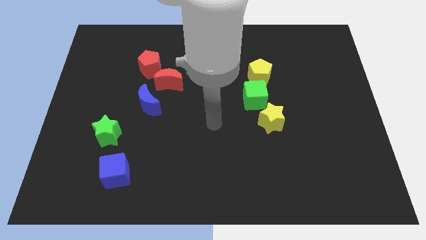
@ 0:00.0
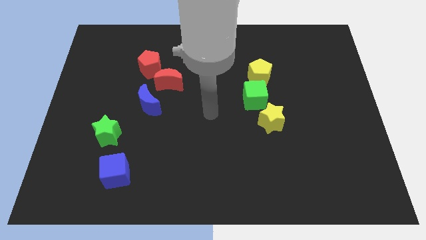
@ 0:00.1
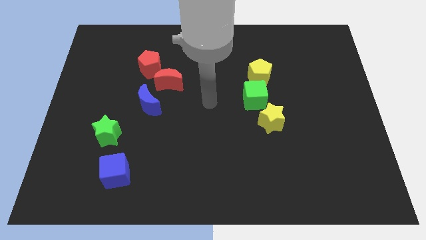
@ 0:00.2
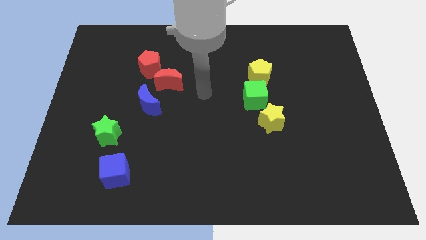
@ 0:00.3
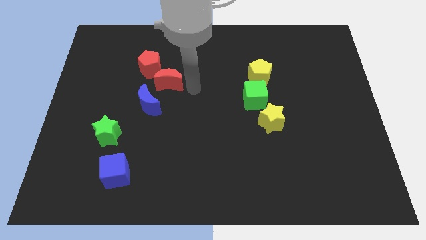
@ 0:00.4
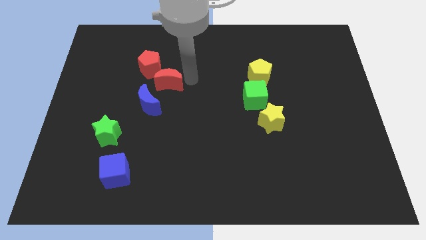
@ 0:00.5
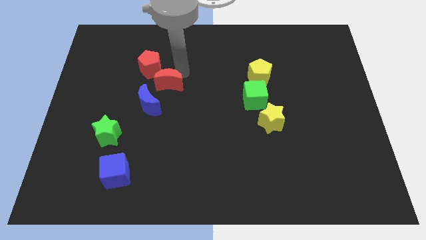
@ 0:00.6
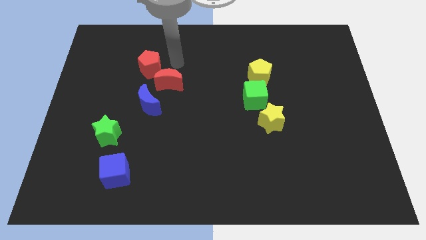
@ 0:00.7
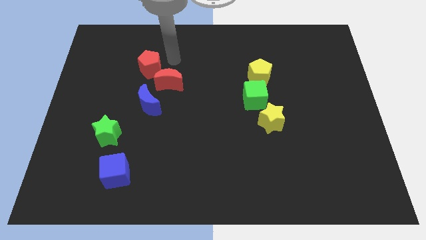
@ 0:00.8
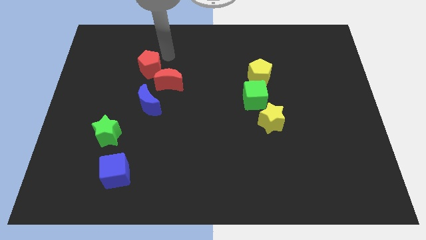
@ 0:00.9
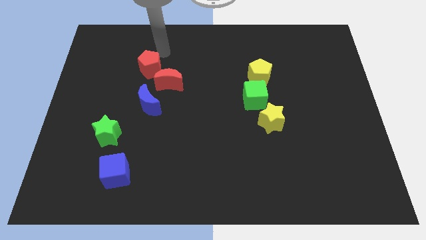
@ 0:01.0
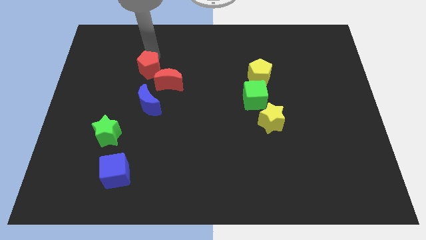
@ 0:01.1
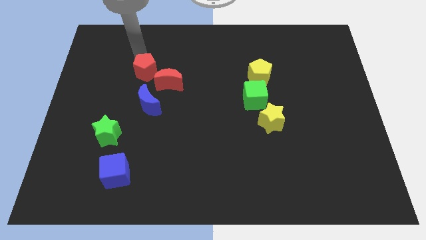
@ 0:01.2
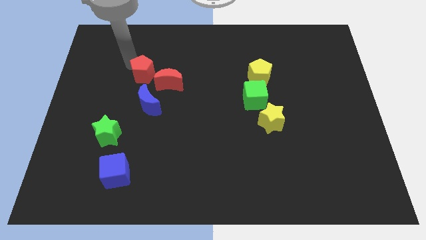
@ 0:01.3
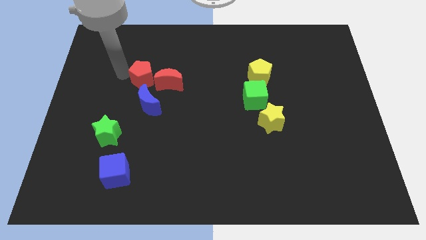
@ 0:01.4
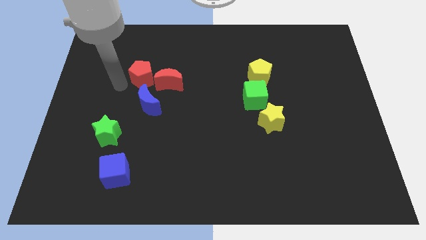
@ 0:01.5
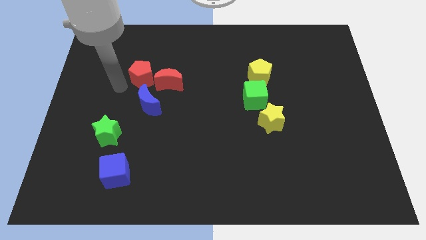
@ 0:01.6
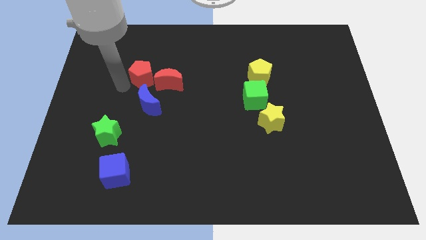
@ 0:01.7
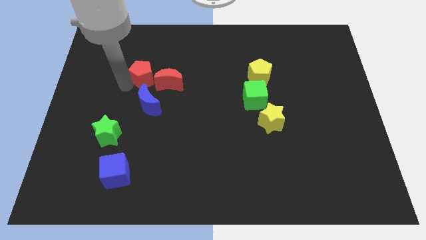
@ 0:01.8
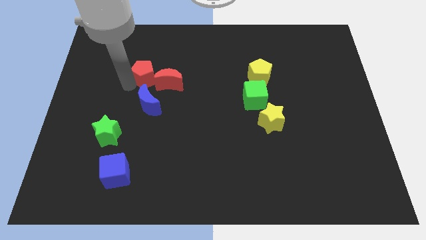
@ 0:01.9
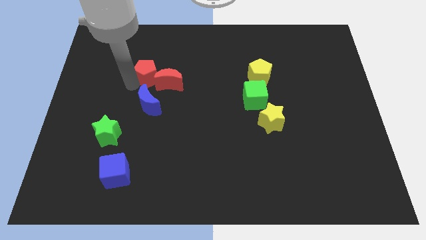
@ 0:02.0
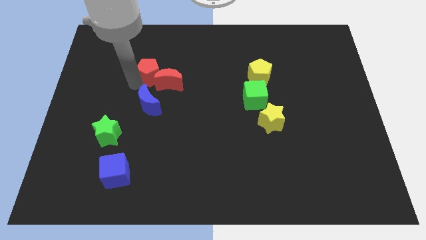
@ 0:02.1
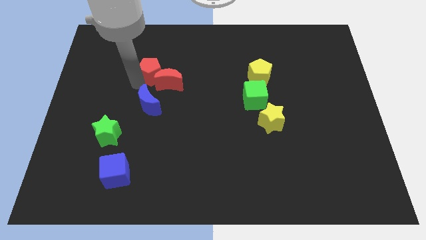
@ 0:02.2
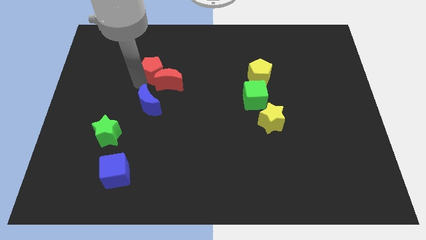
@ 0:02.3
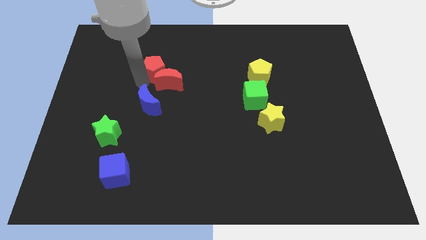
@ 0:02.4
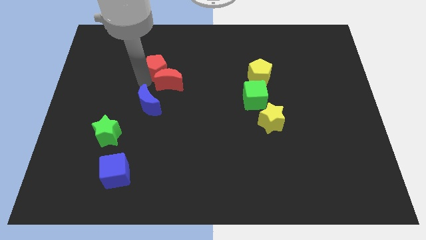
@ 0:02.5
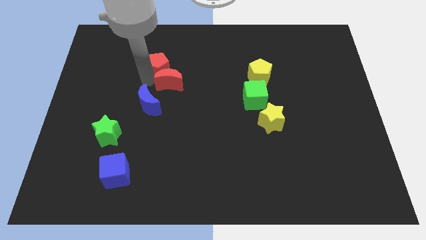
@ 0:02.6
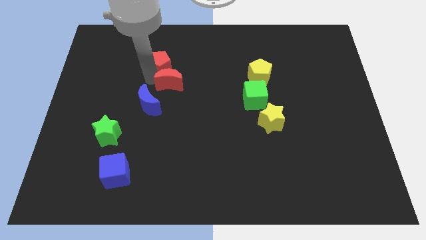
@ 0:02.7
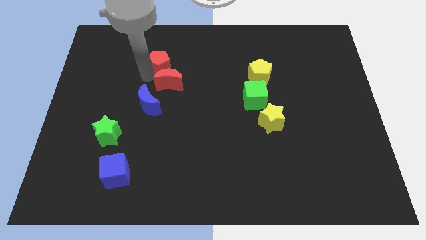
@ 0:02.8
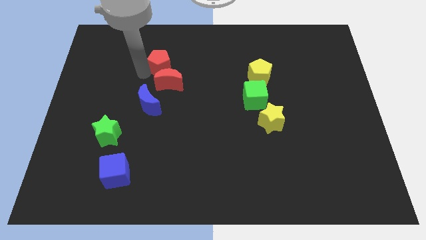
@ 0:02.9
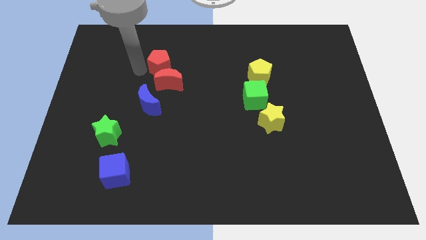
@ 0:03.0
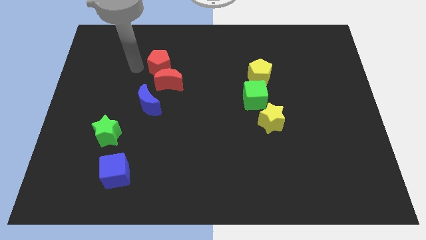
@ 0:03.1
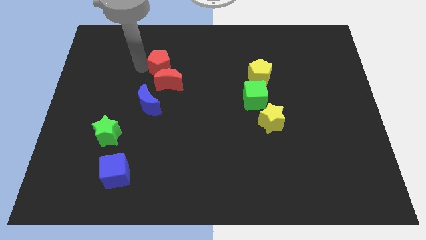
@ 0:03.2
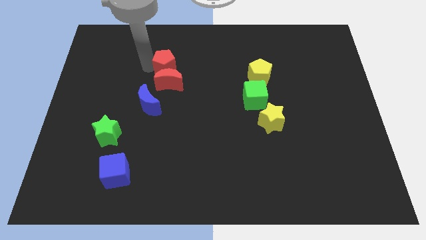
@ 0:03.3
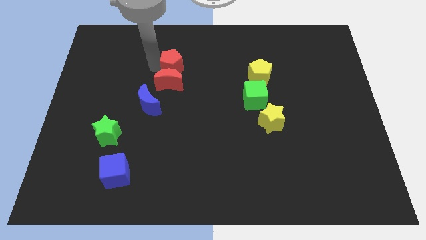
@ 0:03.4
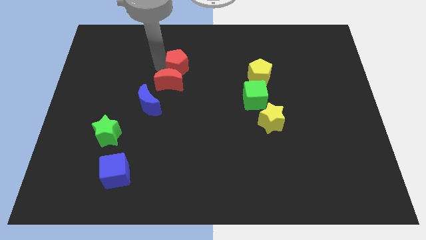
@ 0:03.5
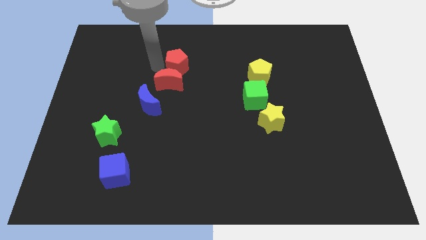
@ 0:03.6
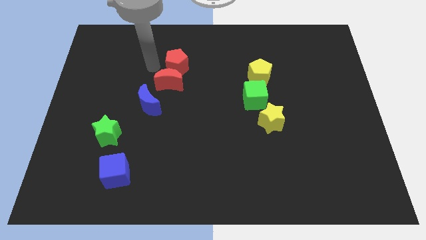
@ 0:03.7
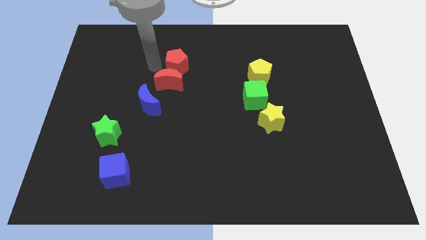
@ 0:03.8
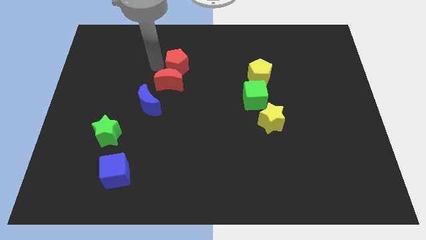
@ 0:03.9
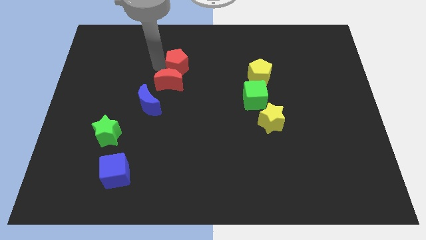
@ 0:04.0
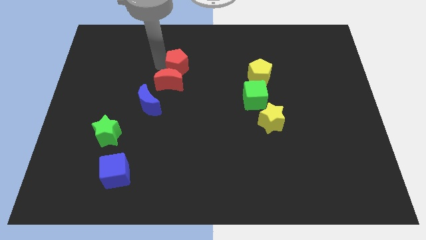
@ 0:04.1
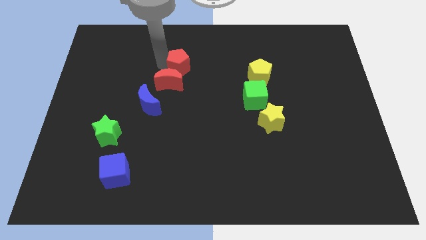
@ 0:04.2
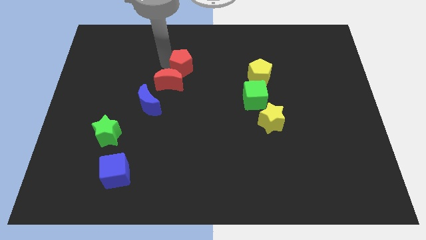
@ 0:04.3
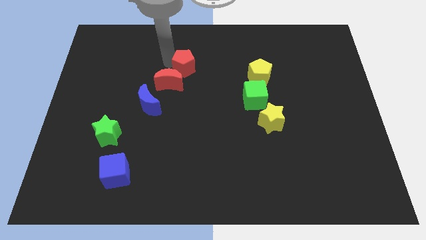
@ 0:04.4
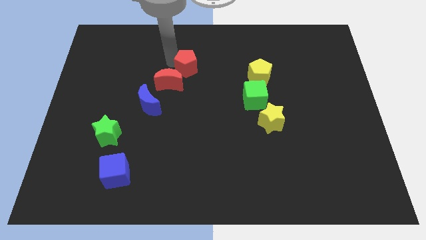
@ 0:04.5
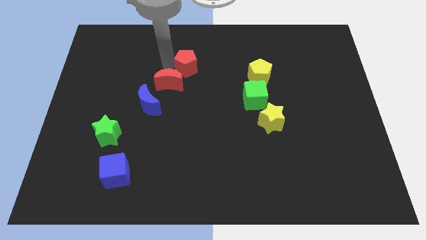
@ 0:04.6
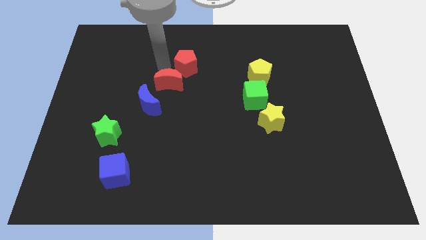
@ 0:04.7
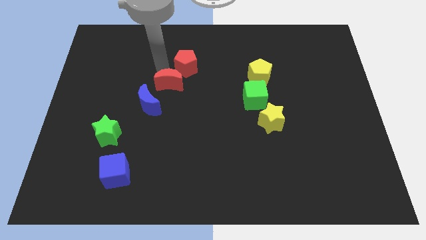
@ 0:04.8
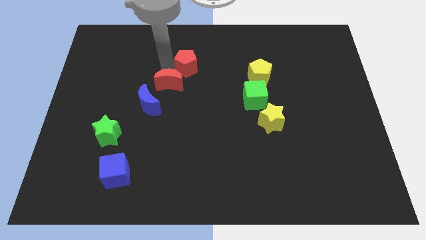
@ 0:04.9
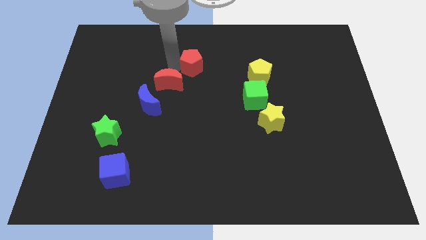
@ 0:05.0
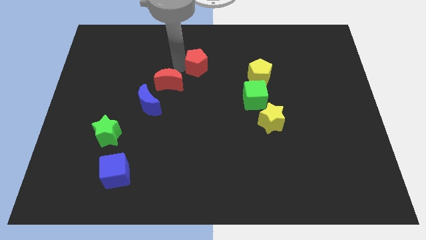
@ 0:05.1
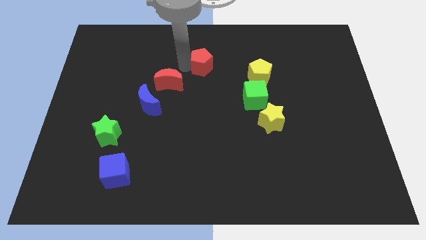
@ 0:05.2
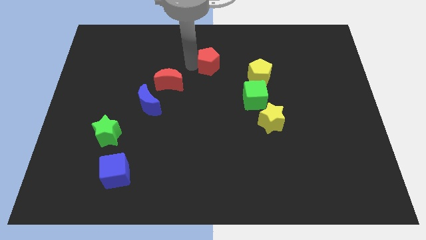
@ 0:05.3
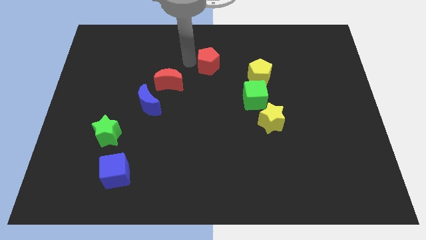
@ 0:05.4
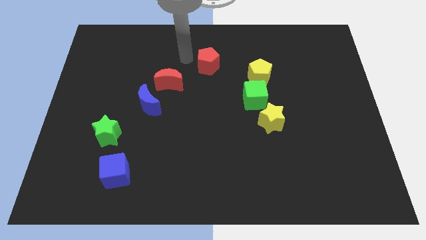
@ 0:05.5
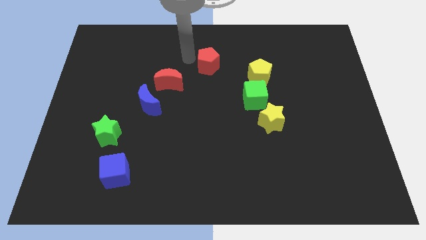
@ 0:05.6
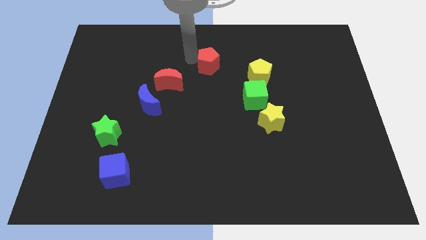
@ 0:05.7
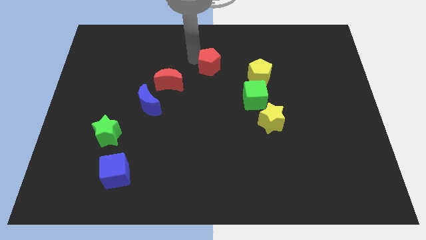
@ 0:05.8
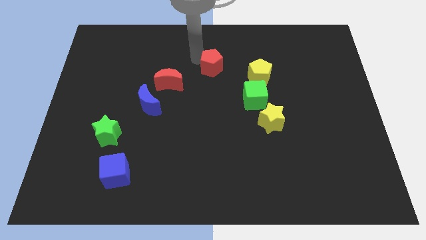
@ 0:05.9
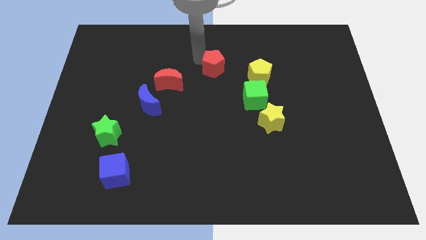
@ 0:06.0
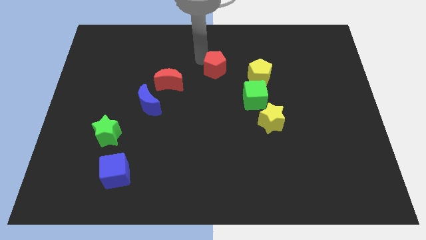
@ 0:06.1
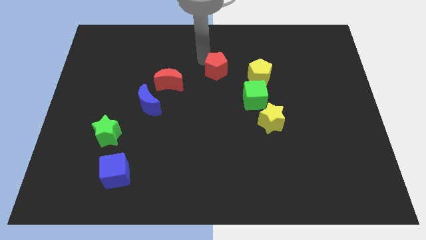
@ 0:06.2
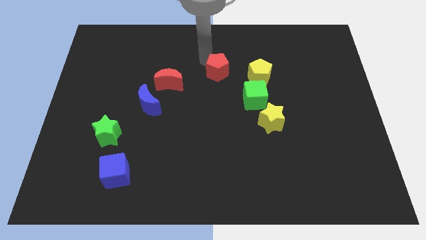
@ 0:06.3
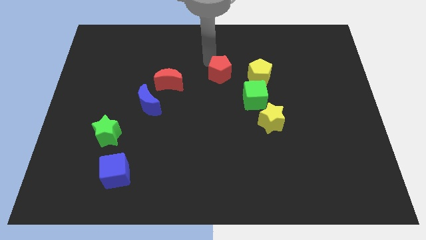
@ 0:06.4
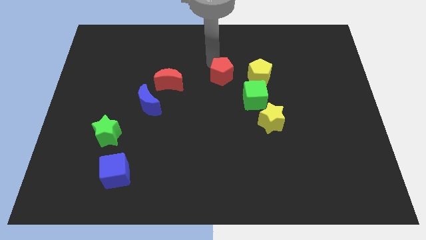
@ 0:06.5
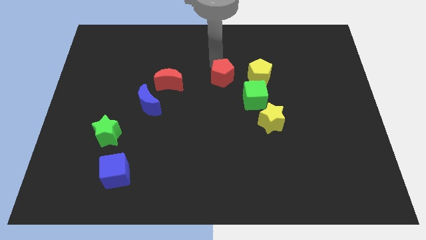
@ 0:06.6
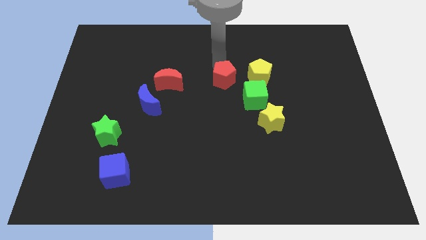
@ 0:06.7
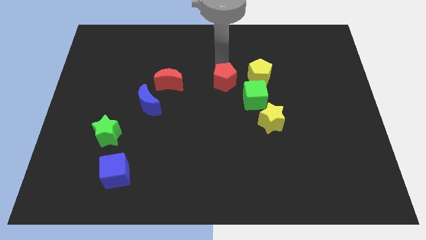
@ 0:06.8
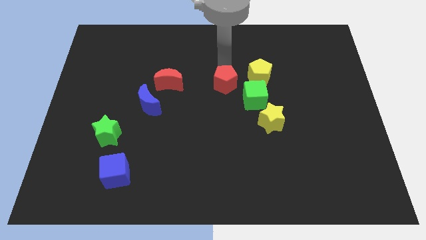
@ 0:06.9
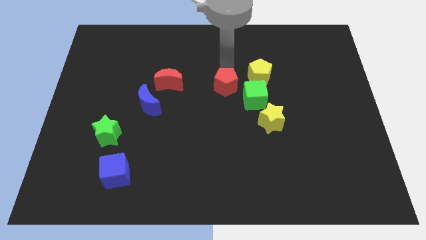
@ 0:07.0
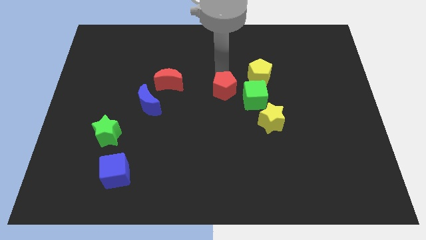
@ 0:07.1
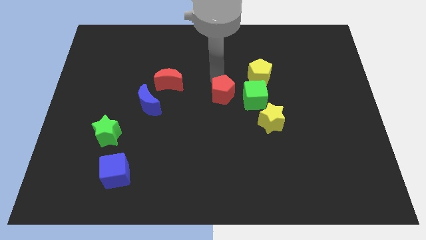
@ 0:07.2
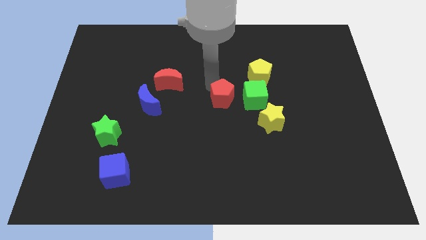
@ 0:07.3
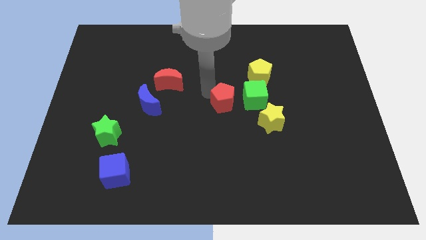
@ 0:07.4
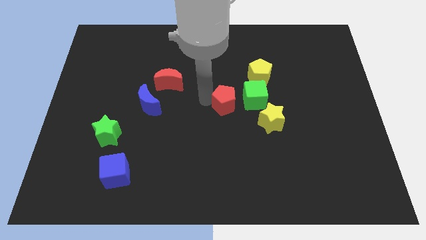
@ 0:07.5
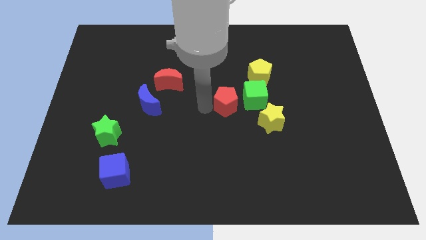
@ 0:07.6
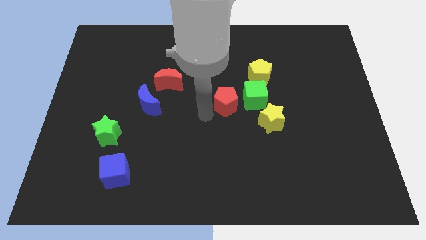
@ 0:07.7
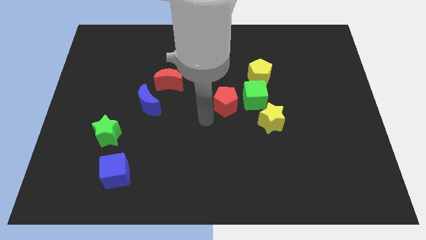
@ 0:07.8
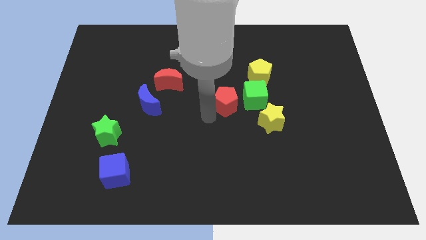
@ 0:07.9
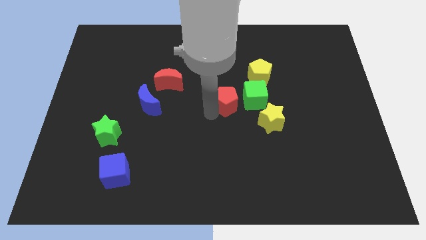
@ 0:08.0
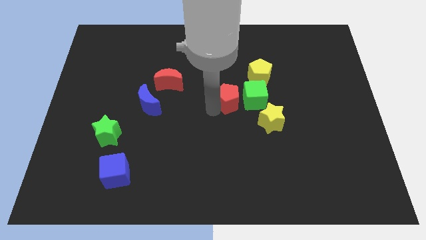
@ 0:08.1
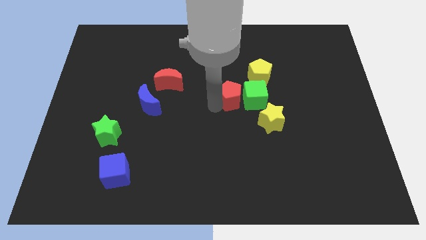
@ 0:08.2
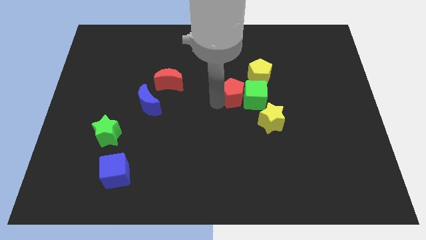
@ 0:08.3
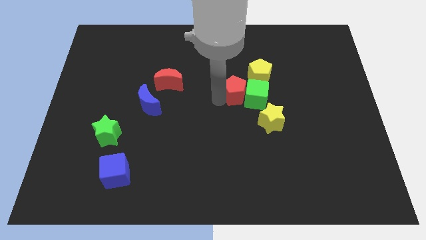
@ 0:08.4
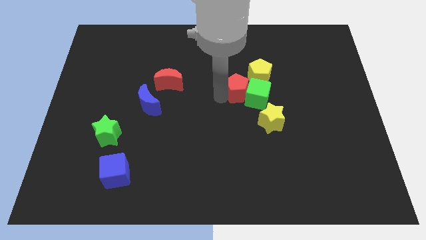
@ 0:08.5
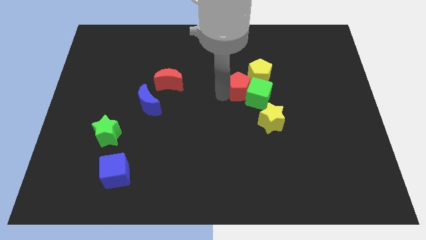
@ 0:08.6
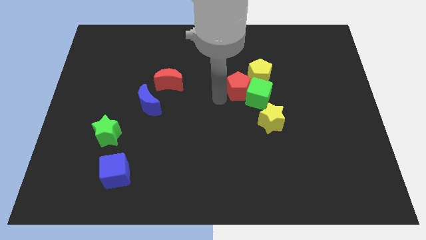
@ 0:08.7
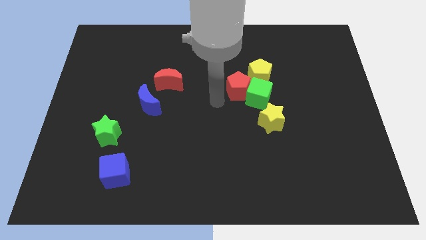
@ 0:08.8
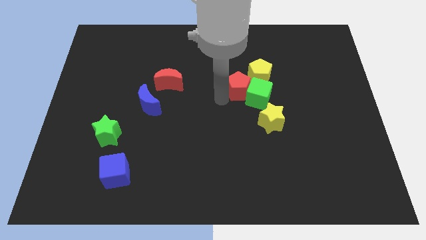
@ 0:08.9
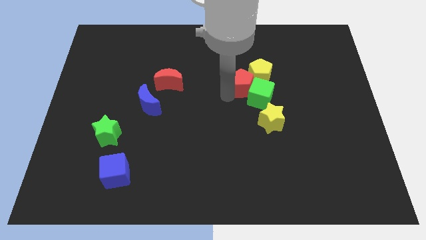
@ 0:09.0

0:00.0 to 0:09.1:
push the red pentagon next to the yellow pentagon
